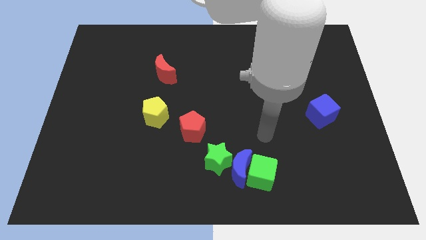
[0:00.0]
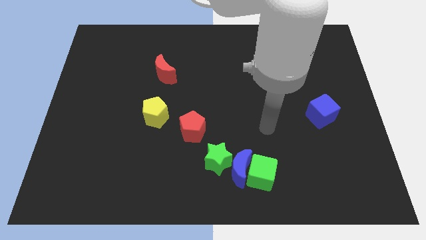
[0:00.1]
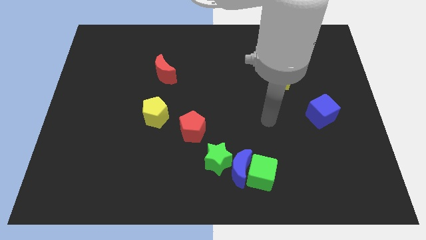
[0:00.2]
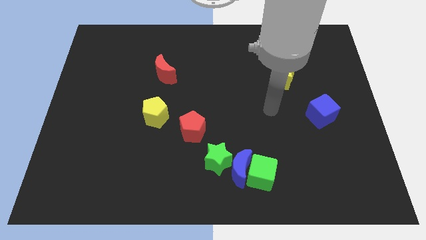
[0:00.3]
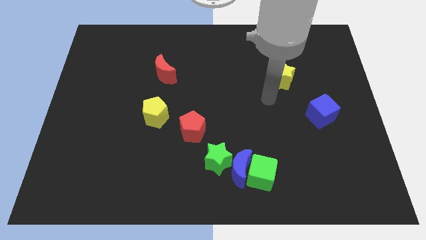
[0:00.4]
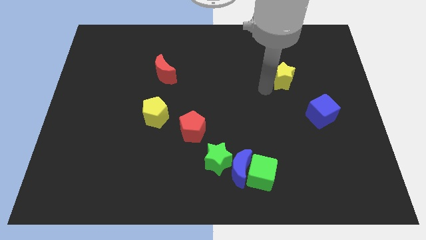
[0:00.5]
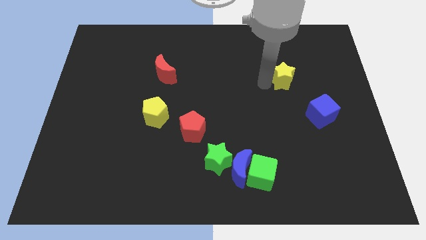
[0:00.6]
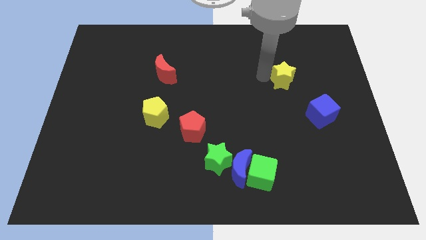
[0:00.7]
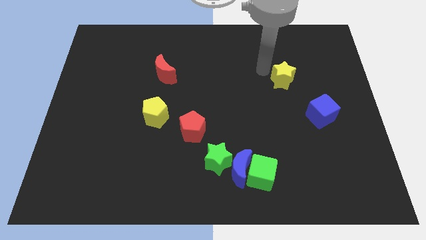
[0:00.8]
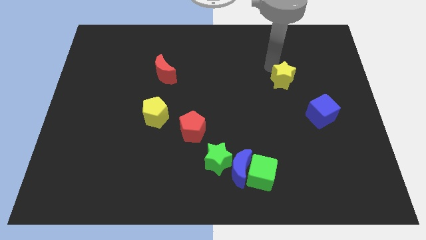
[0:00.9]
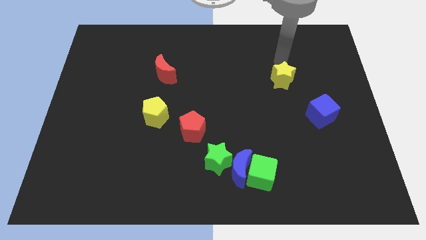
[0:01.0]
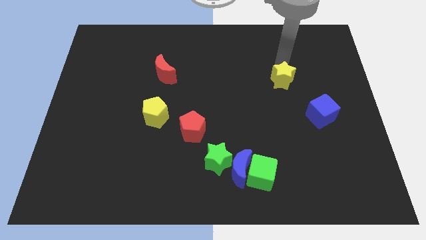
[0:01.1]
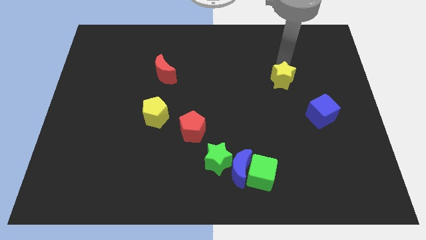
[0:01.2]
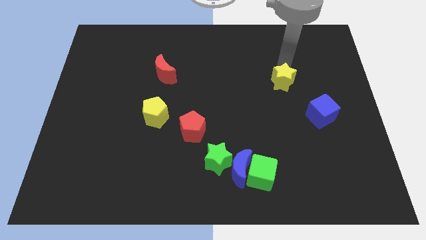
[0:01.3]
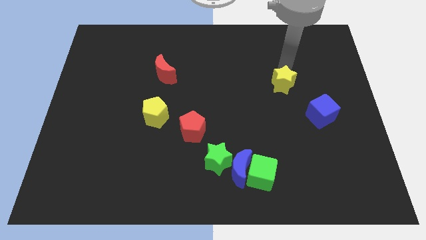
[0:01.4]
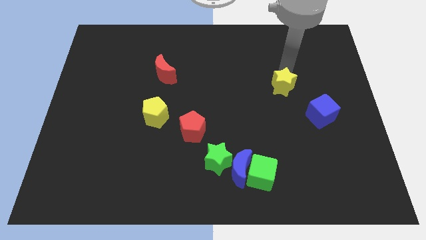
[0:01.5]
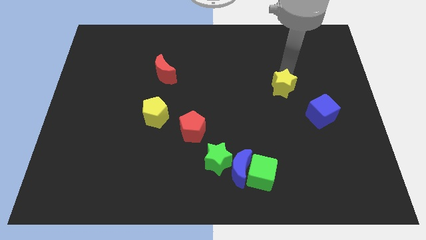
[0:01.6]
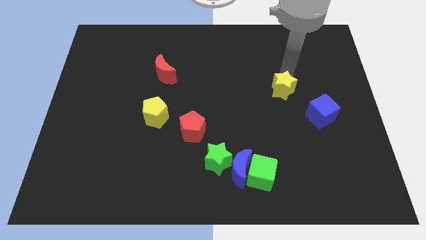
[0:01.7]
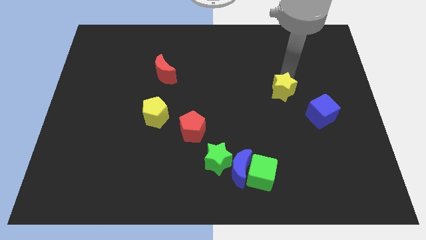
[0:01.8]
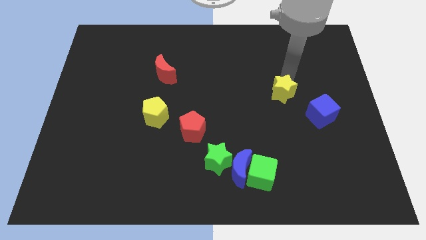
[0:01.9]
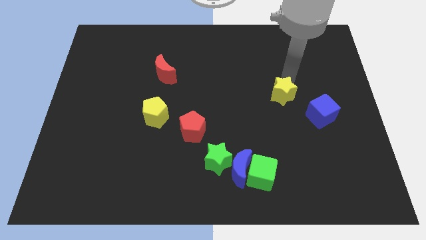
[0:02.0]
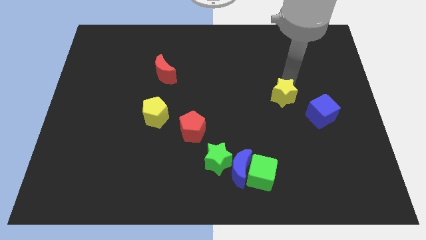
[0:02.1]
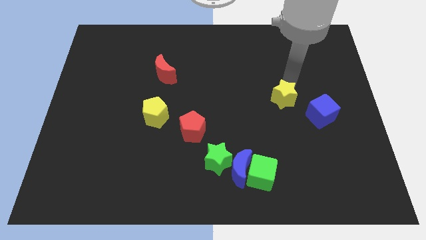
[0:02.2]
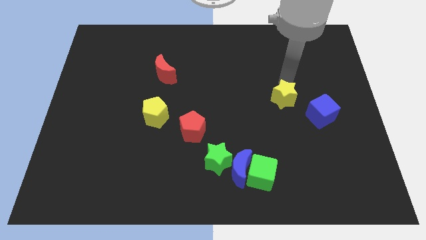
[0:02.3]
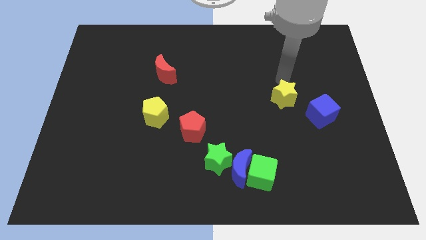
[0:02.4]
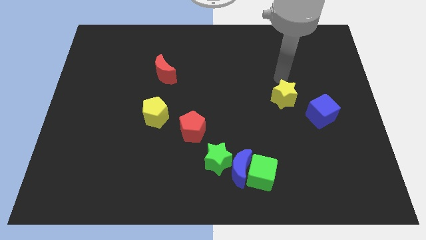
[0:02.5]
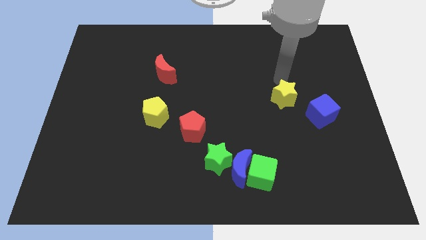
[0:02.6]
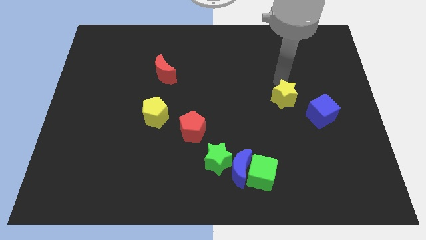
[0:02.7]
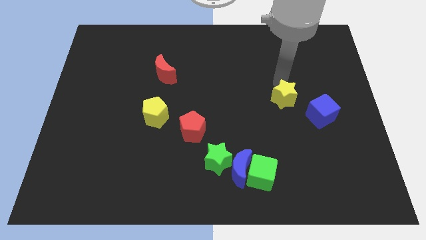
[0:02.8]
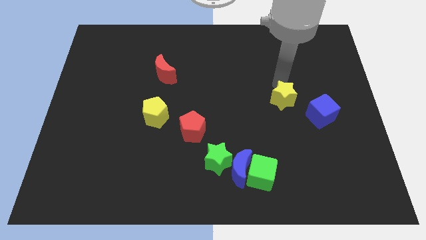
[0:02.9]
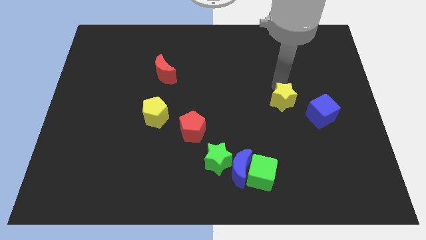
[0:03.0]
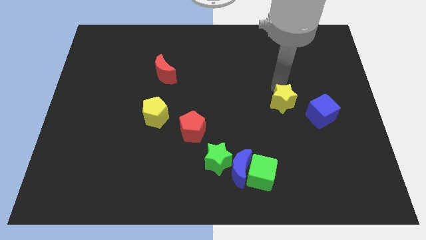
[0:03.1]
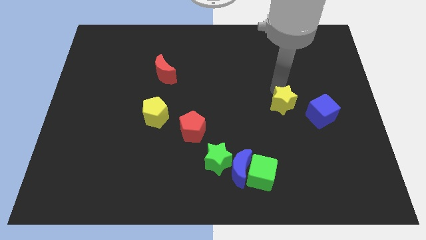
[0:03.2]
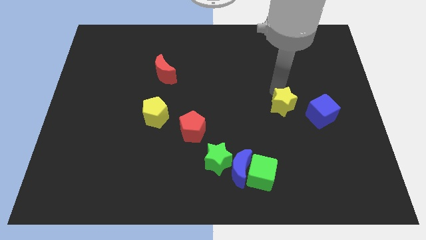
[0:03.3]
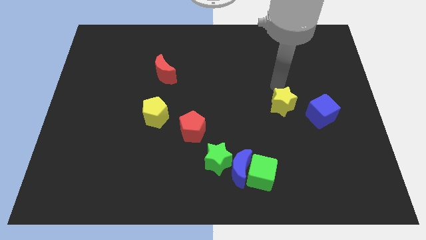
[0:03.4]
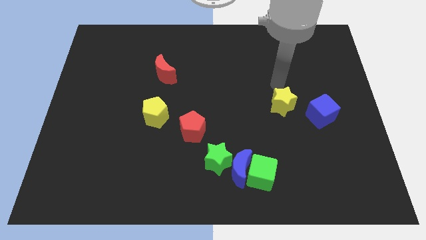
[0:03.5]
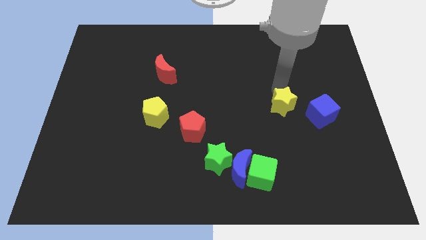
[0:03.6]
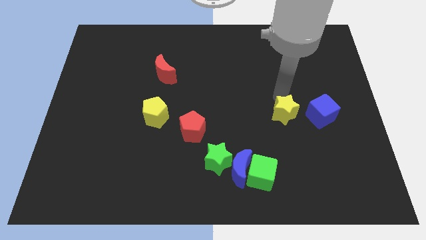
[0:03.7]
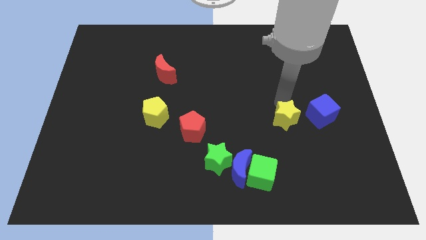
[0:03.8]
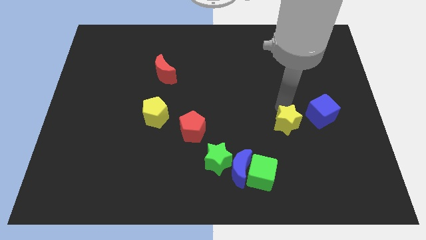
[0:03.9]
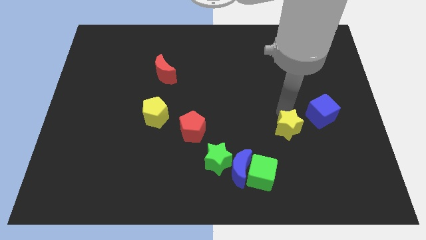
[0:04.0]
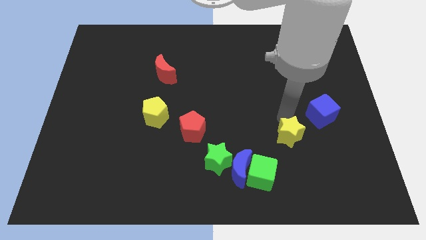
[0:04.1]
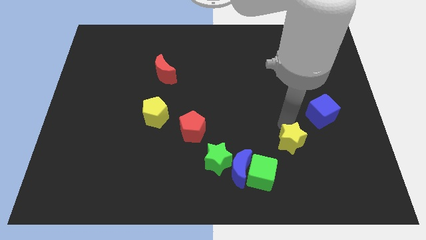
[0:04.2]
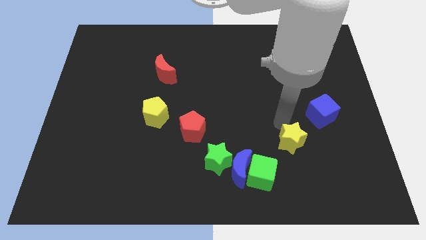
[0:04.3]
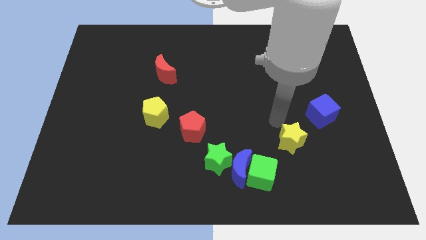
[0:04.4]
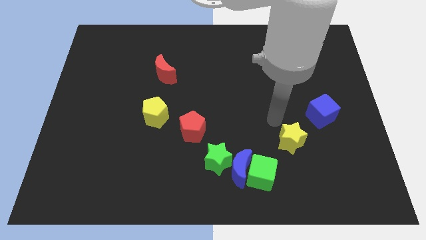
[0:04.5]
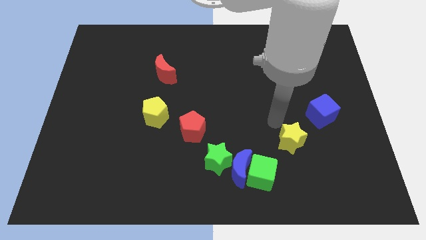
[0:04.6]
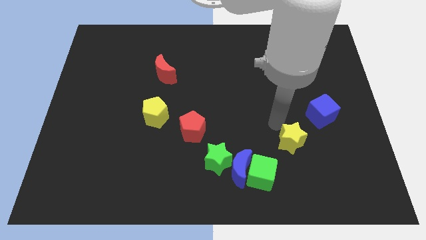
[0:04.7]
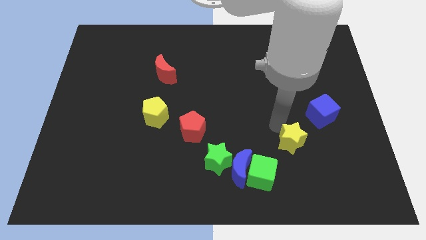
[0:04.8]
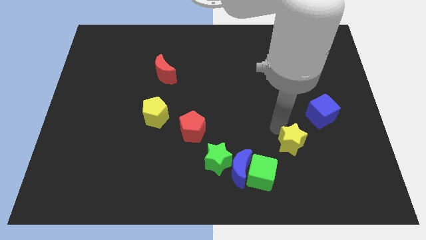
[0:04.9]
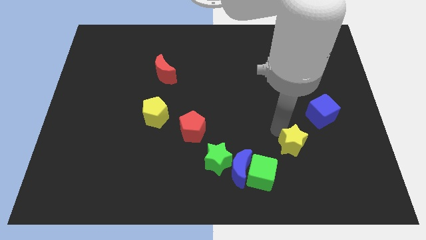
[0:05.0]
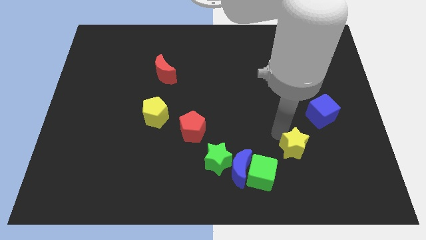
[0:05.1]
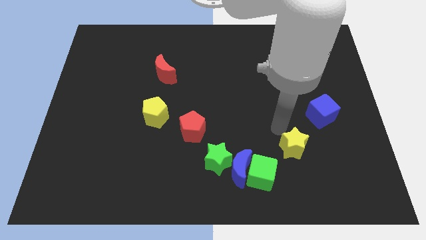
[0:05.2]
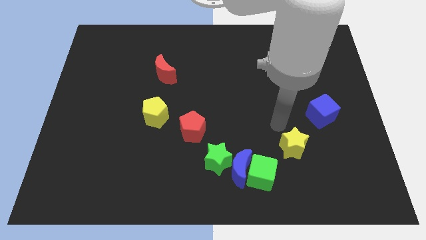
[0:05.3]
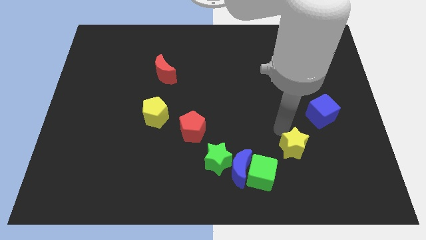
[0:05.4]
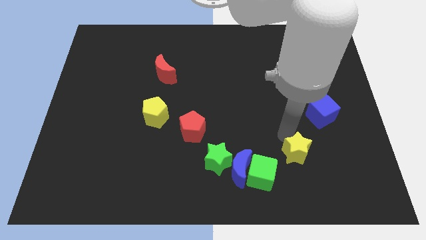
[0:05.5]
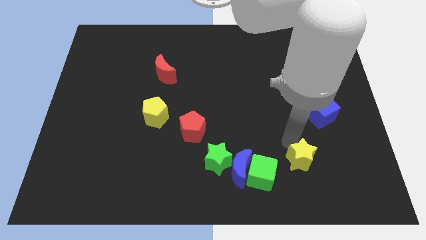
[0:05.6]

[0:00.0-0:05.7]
slide the yellow star just right of the green cube
